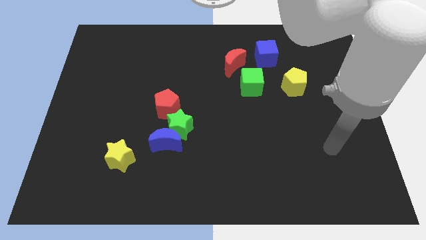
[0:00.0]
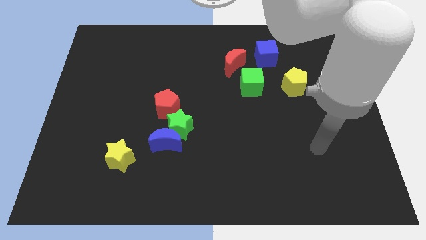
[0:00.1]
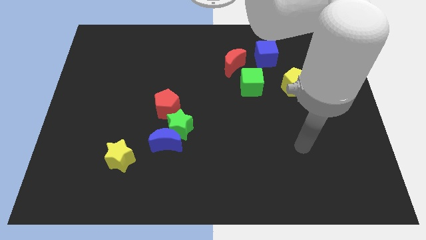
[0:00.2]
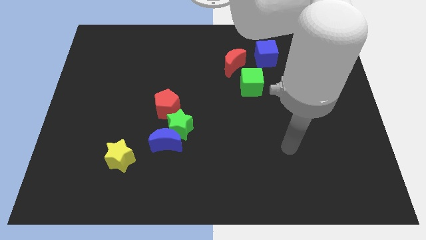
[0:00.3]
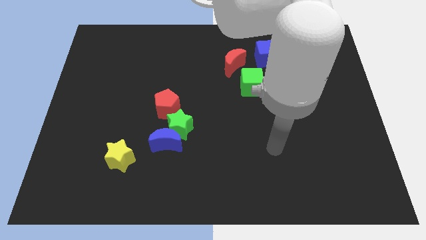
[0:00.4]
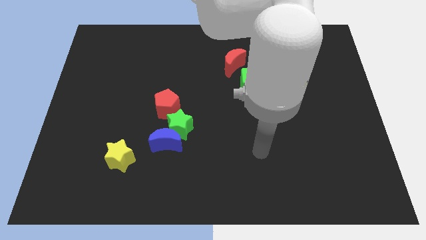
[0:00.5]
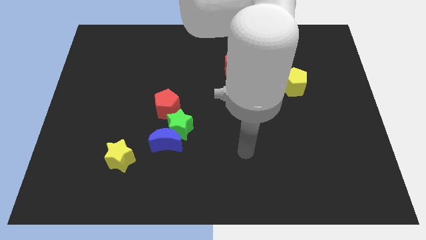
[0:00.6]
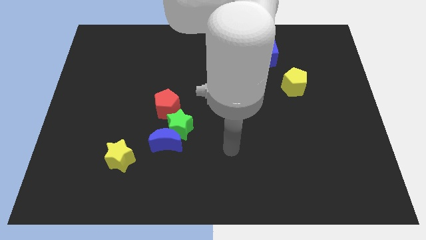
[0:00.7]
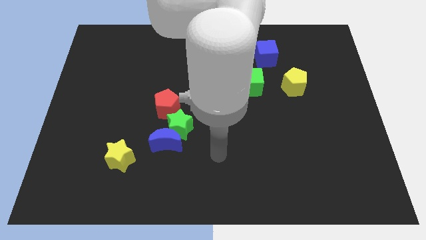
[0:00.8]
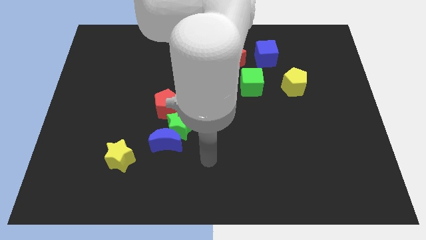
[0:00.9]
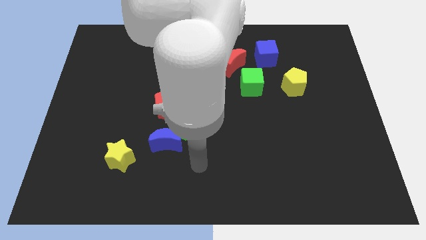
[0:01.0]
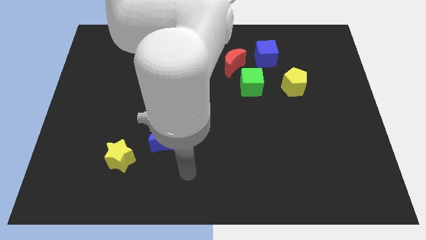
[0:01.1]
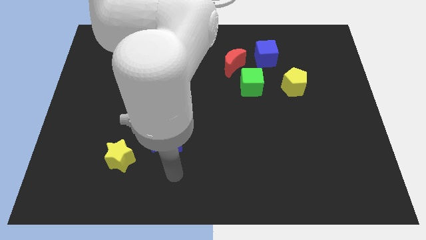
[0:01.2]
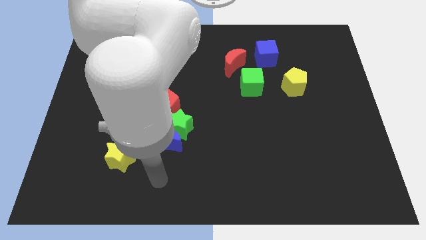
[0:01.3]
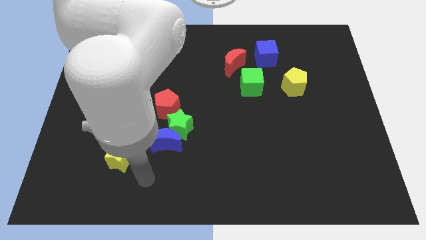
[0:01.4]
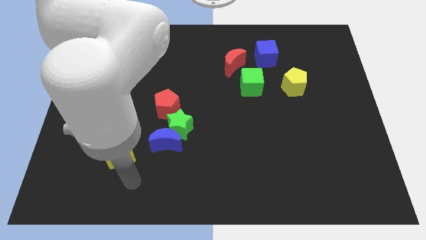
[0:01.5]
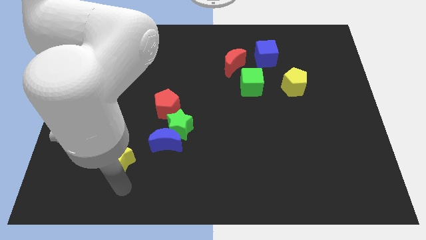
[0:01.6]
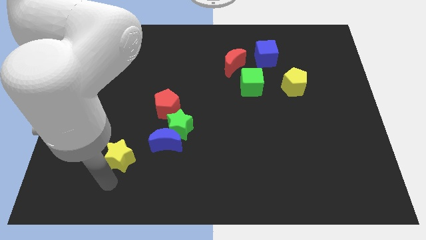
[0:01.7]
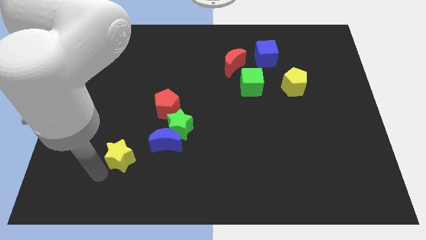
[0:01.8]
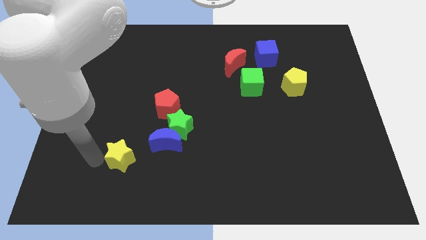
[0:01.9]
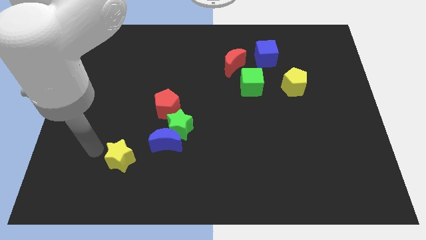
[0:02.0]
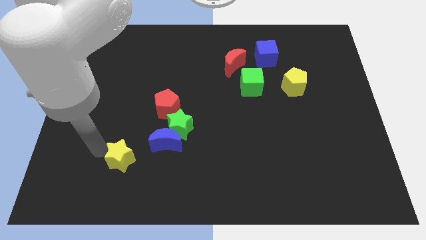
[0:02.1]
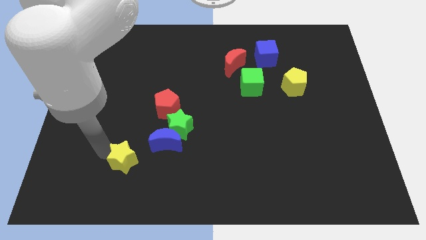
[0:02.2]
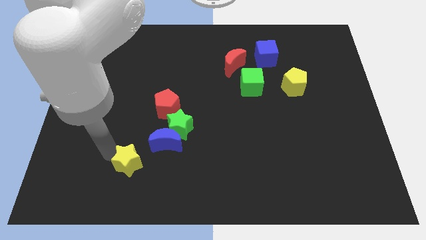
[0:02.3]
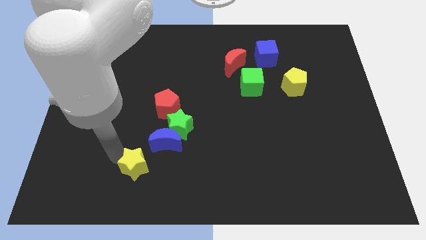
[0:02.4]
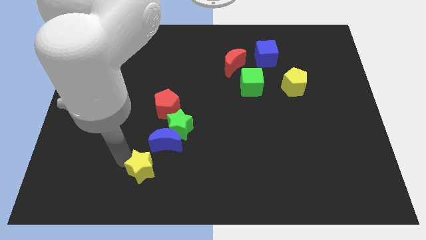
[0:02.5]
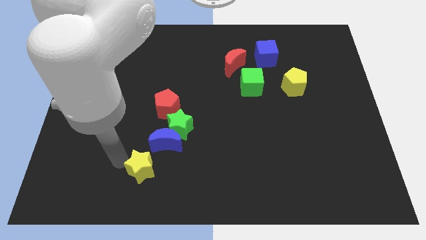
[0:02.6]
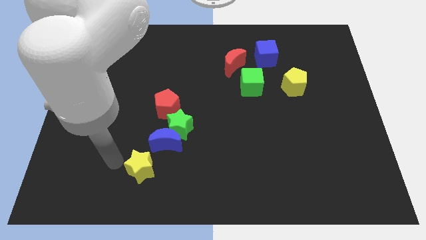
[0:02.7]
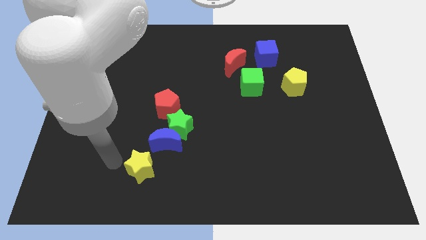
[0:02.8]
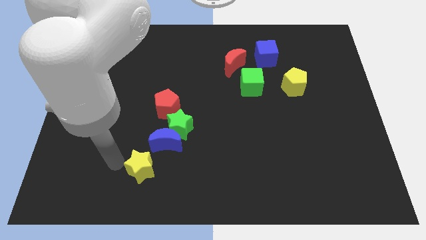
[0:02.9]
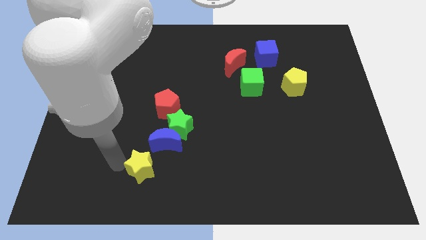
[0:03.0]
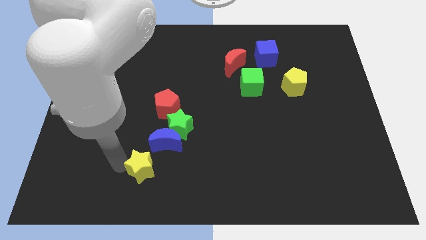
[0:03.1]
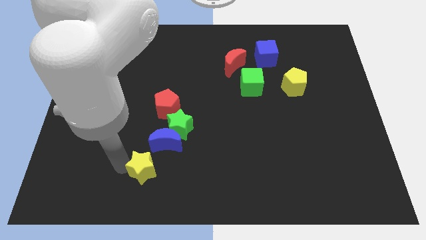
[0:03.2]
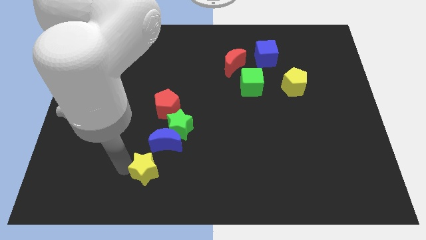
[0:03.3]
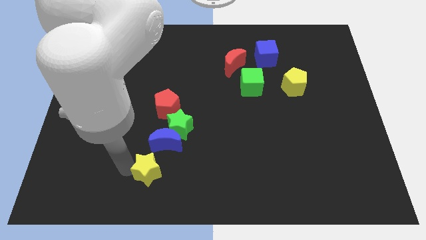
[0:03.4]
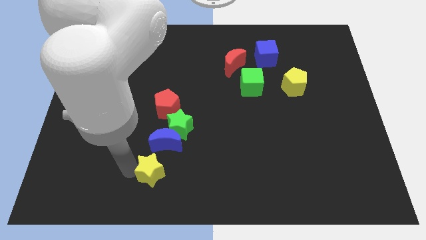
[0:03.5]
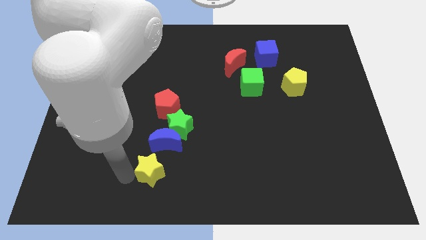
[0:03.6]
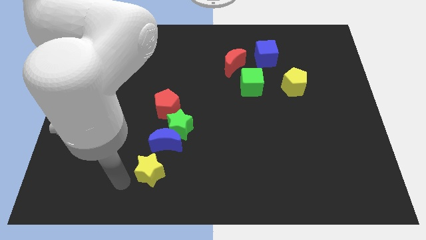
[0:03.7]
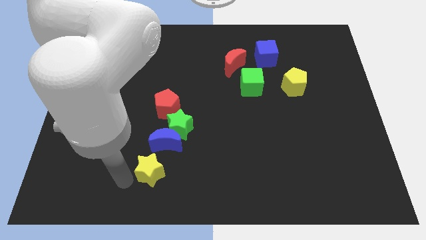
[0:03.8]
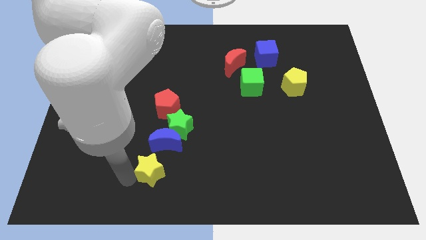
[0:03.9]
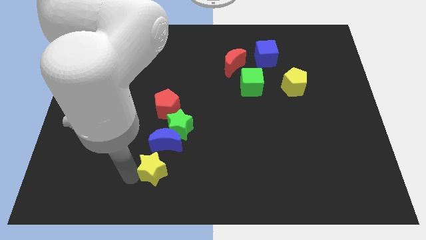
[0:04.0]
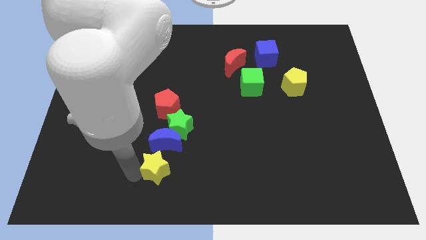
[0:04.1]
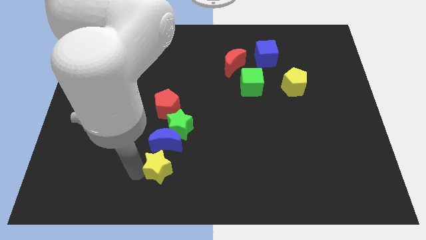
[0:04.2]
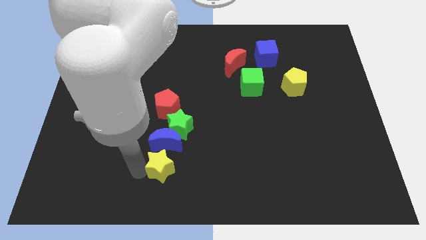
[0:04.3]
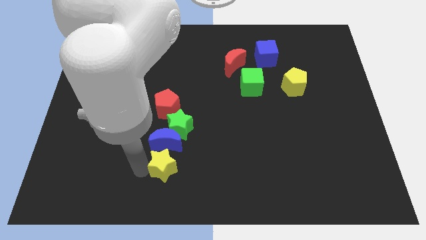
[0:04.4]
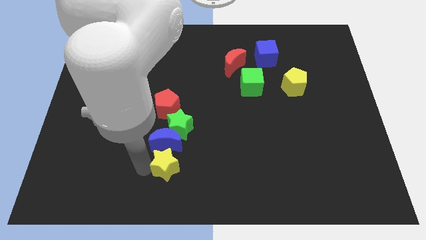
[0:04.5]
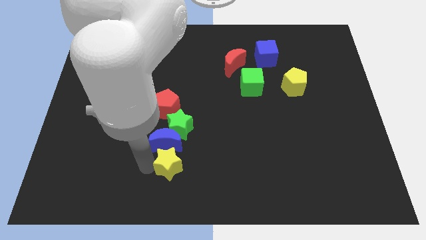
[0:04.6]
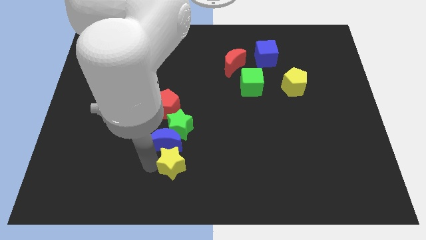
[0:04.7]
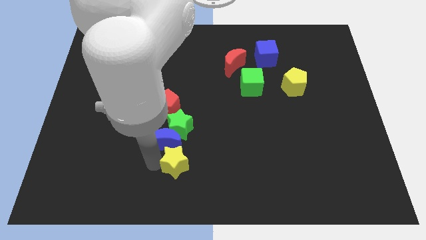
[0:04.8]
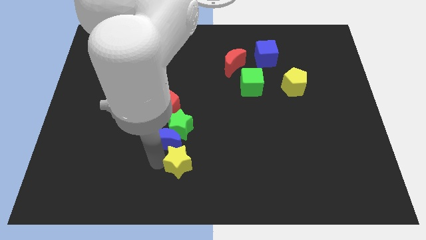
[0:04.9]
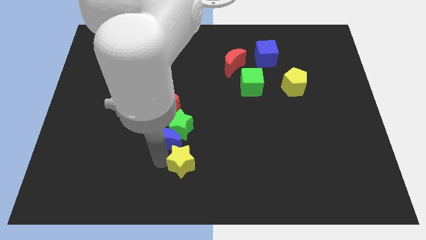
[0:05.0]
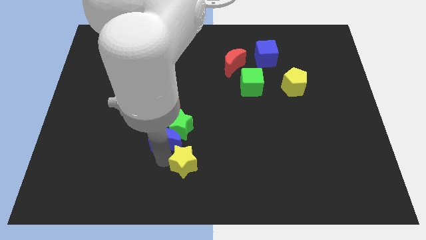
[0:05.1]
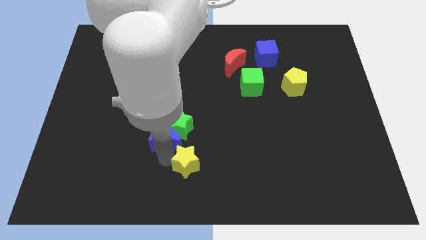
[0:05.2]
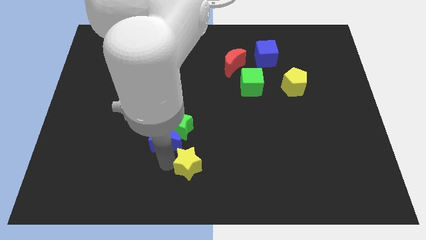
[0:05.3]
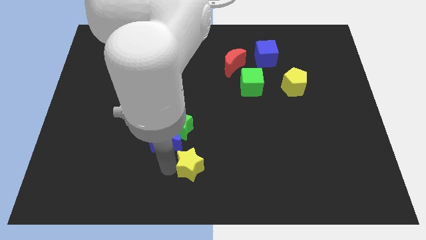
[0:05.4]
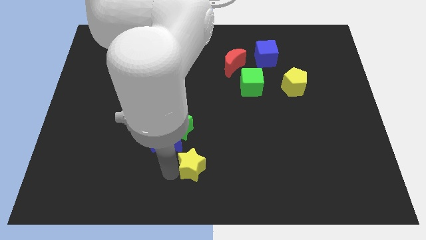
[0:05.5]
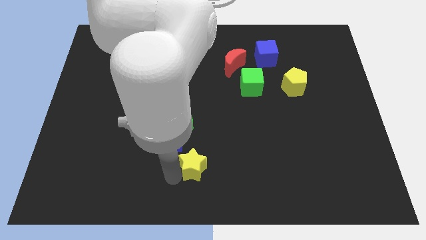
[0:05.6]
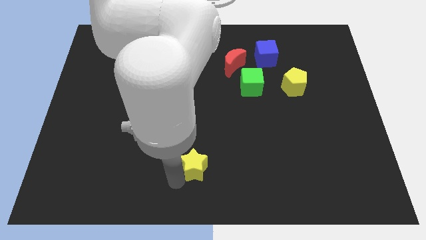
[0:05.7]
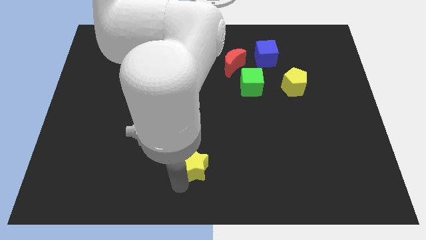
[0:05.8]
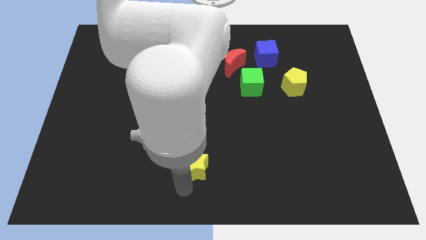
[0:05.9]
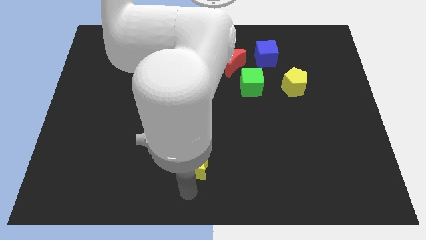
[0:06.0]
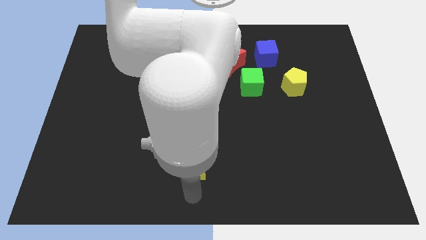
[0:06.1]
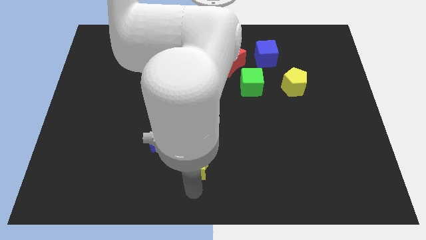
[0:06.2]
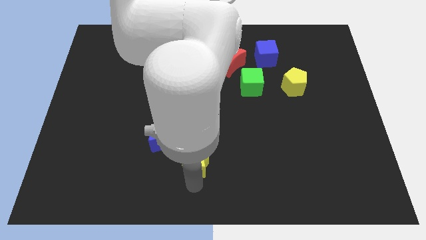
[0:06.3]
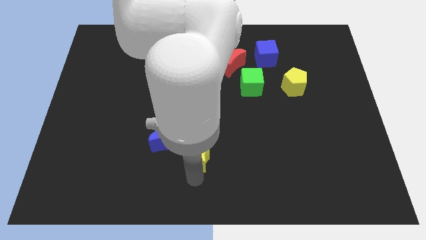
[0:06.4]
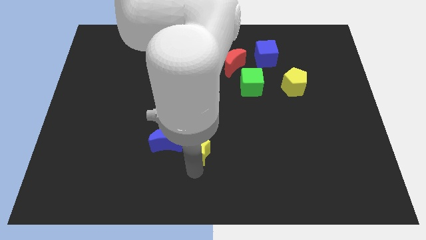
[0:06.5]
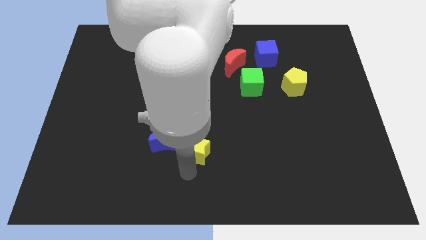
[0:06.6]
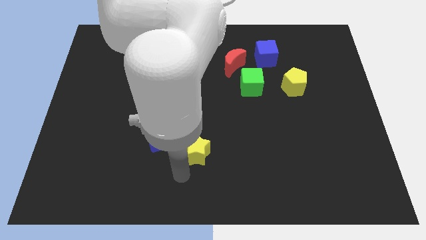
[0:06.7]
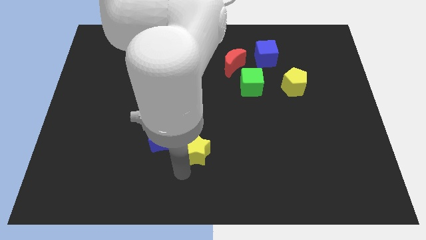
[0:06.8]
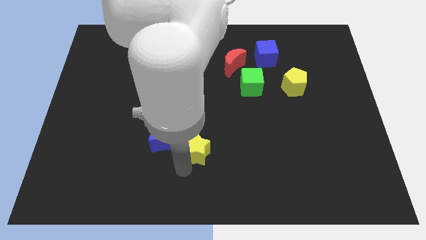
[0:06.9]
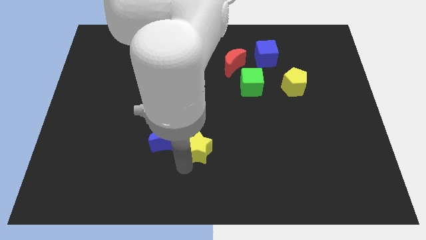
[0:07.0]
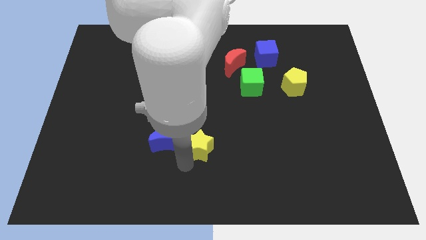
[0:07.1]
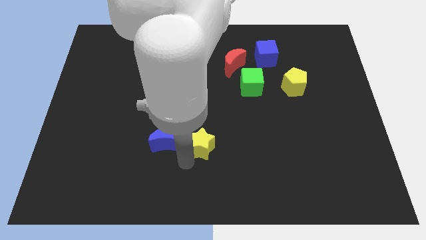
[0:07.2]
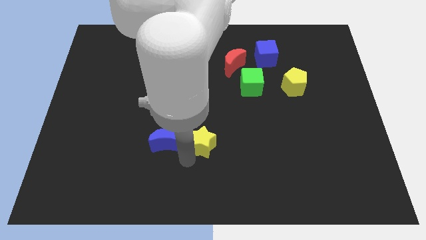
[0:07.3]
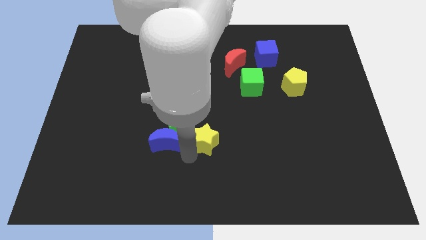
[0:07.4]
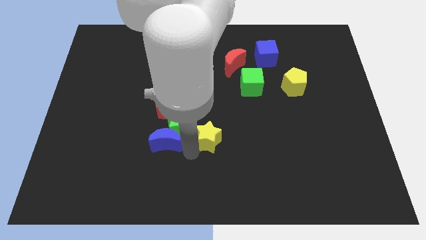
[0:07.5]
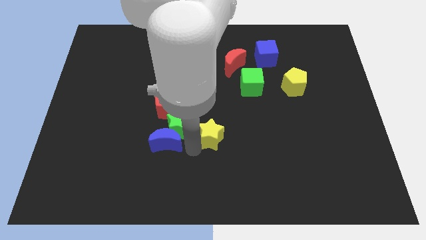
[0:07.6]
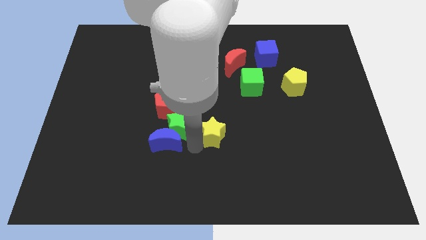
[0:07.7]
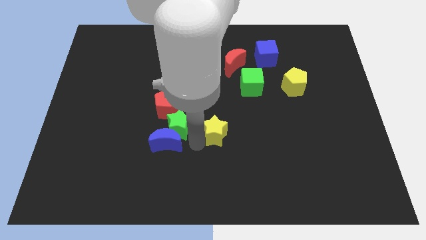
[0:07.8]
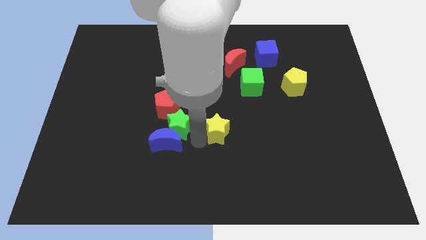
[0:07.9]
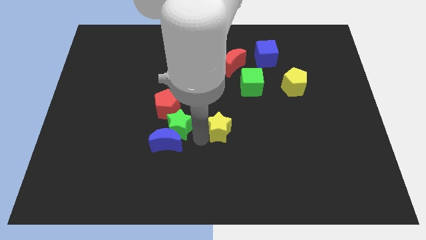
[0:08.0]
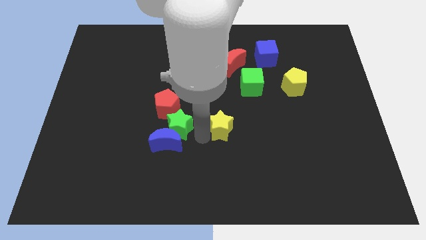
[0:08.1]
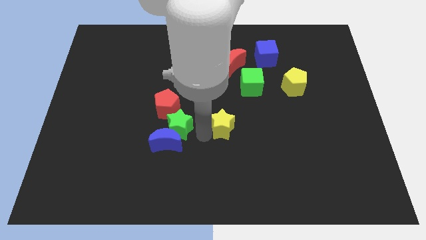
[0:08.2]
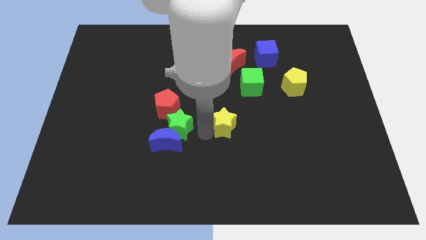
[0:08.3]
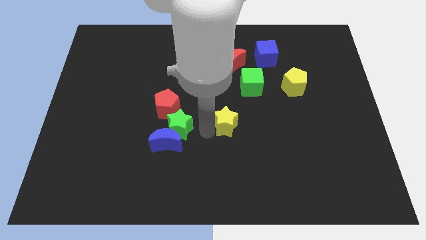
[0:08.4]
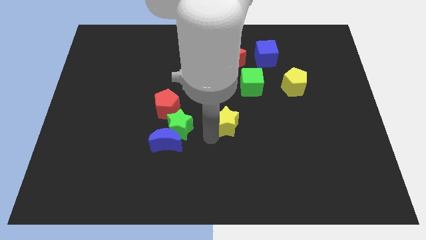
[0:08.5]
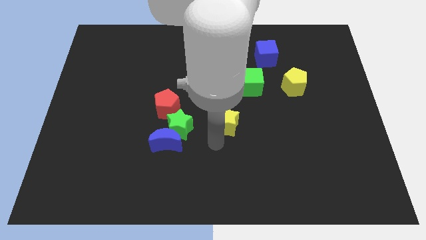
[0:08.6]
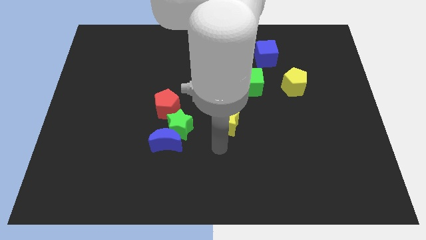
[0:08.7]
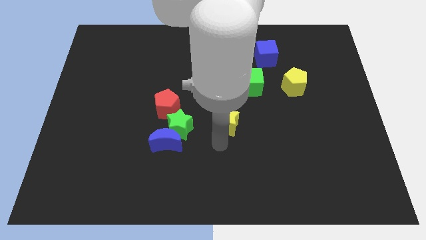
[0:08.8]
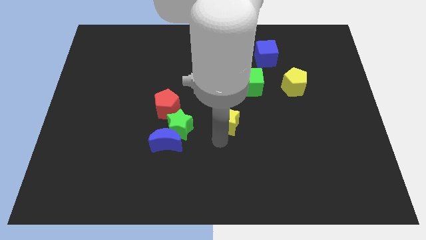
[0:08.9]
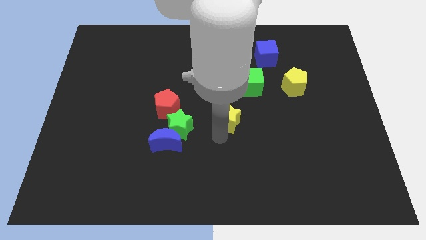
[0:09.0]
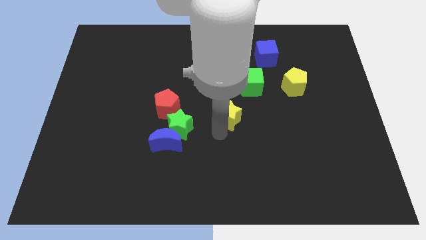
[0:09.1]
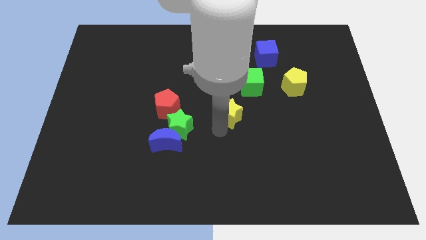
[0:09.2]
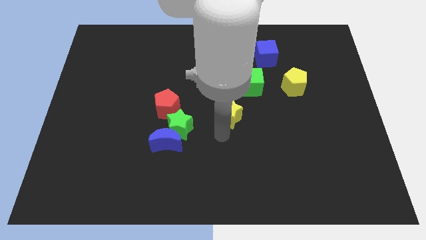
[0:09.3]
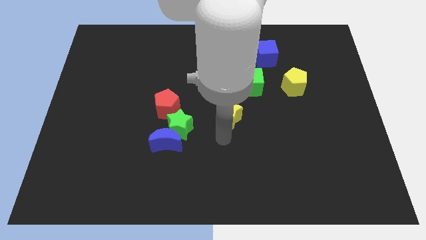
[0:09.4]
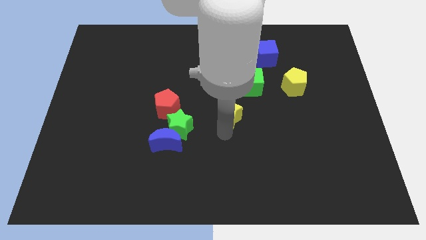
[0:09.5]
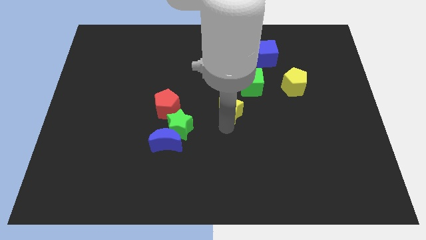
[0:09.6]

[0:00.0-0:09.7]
put the yellow star below the red moon
